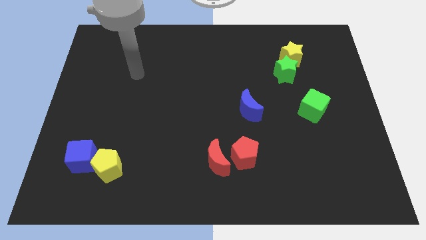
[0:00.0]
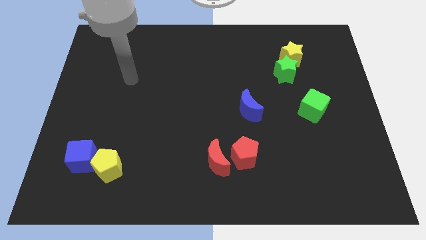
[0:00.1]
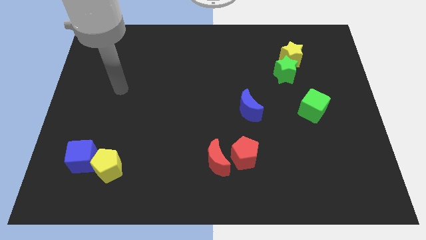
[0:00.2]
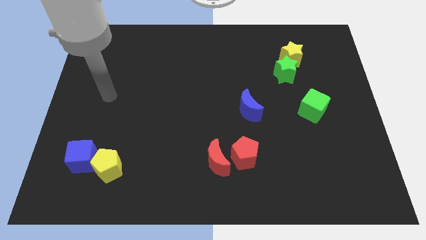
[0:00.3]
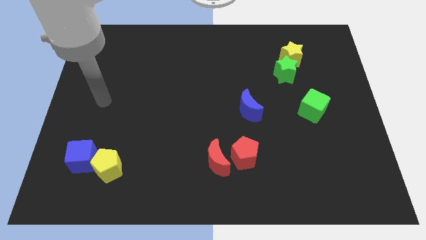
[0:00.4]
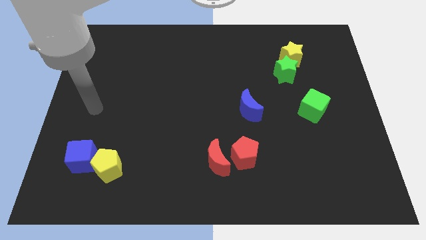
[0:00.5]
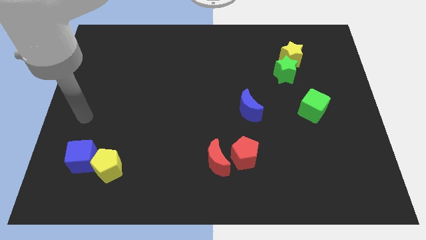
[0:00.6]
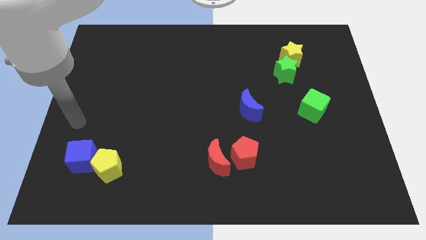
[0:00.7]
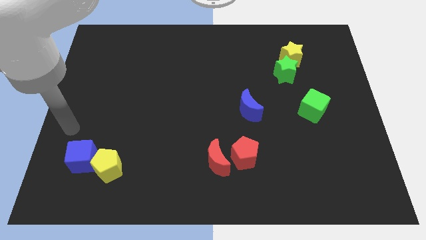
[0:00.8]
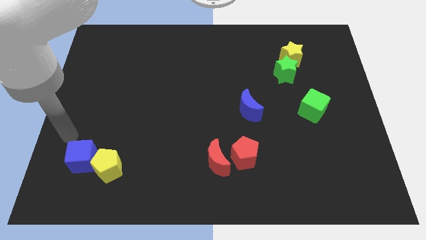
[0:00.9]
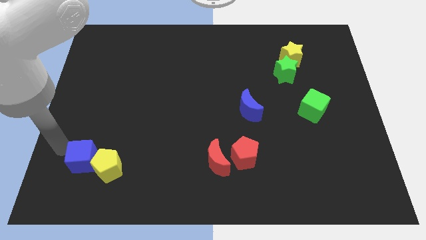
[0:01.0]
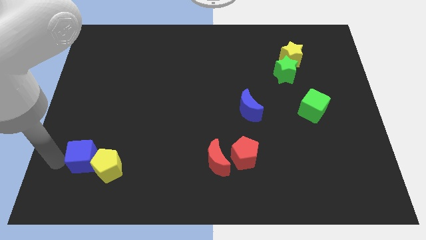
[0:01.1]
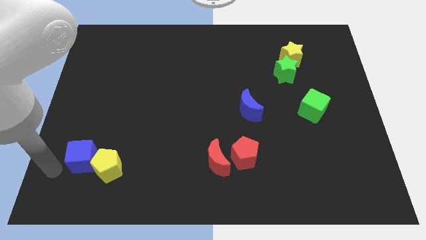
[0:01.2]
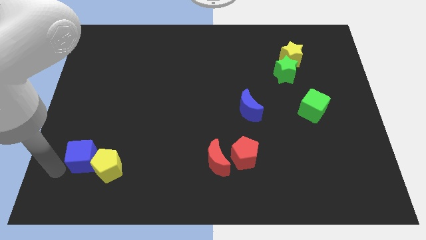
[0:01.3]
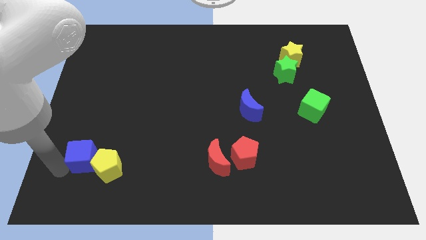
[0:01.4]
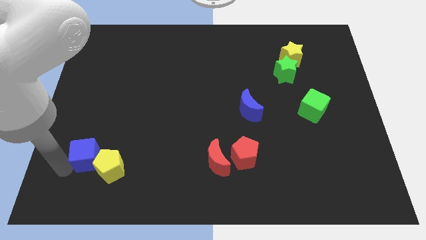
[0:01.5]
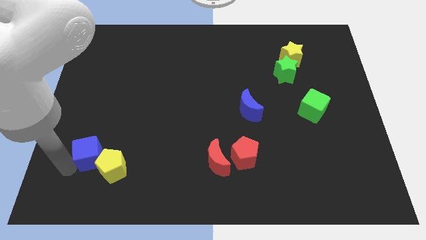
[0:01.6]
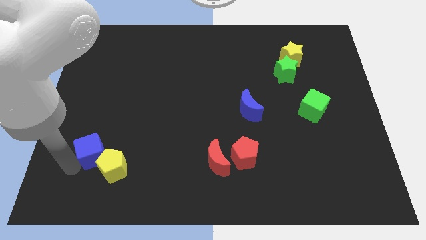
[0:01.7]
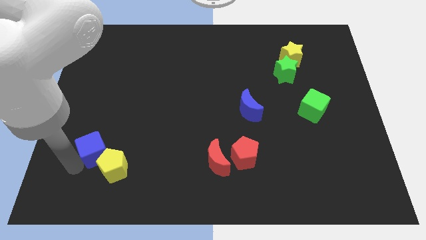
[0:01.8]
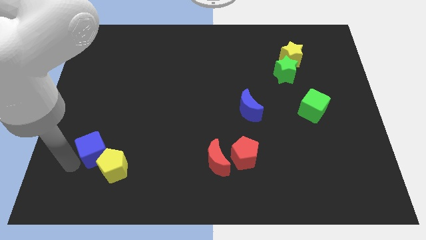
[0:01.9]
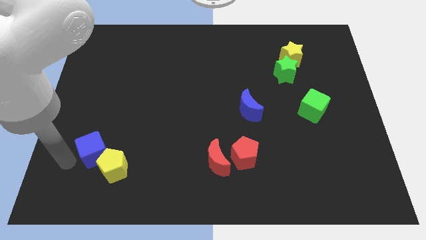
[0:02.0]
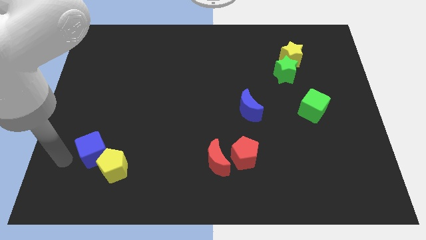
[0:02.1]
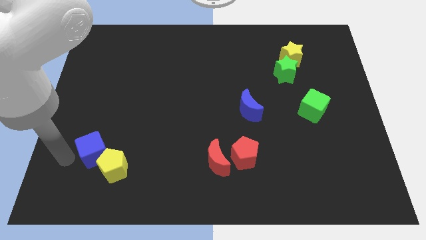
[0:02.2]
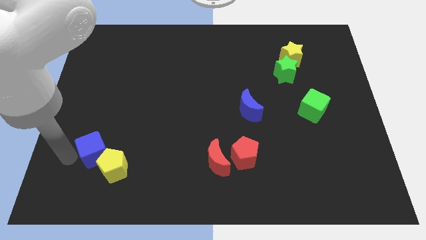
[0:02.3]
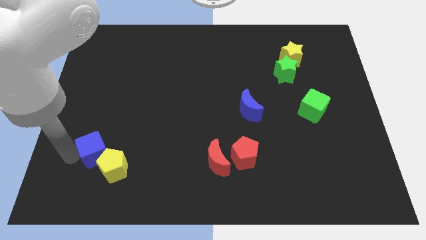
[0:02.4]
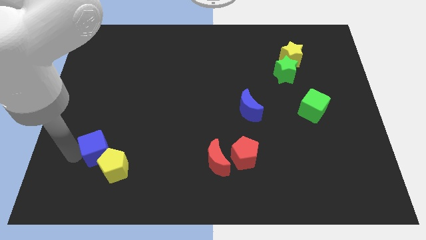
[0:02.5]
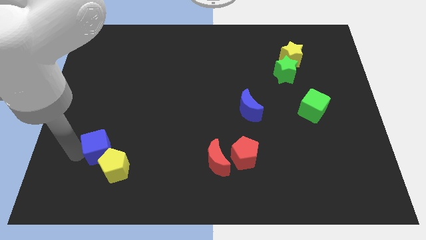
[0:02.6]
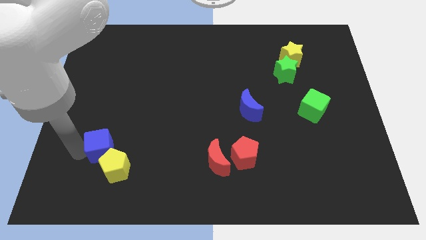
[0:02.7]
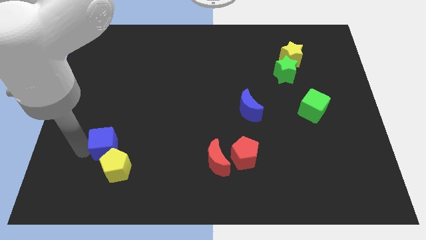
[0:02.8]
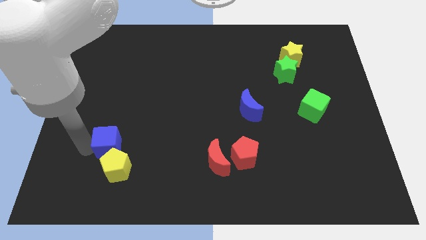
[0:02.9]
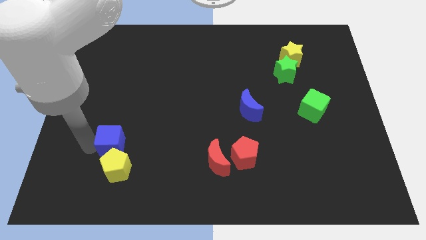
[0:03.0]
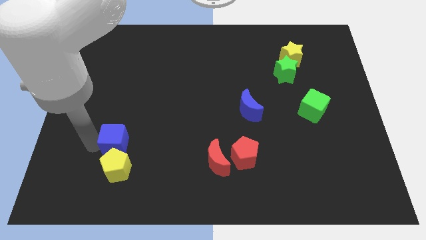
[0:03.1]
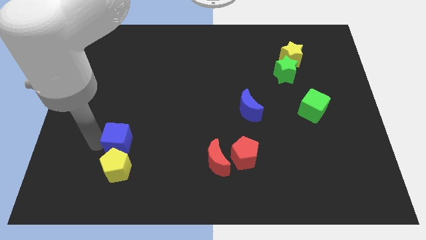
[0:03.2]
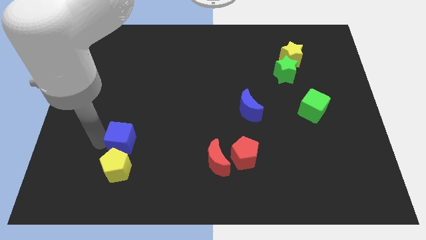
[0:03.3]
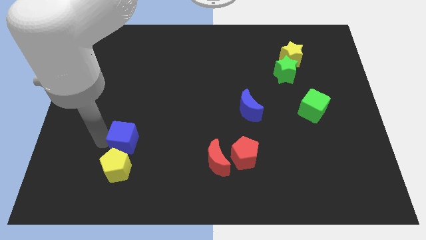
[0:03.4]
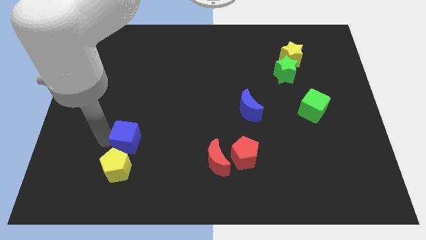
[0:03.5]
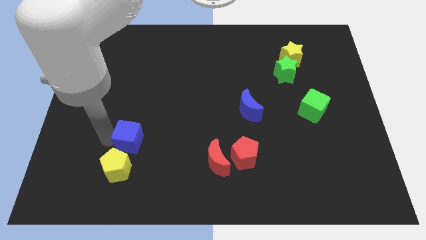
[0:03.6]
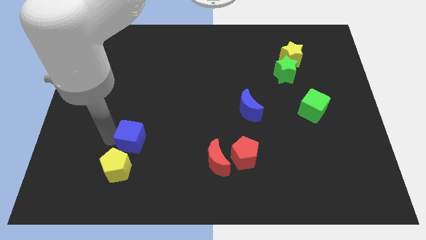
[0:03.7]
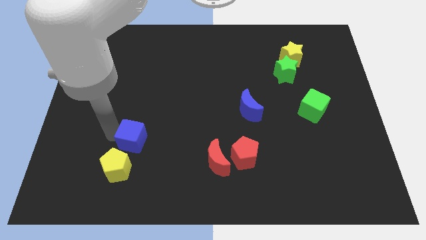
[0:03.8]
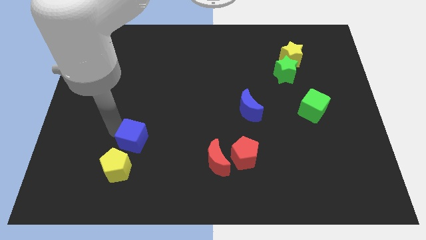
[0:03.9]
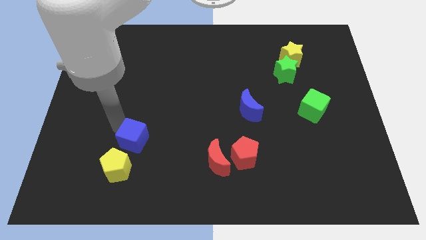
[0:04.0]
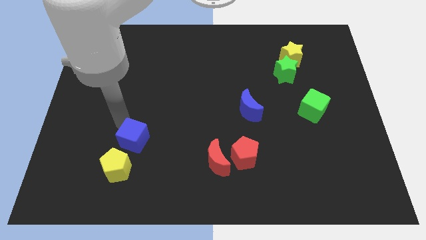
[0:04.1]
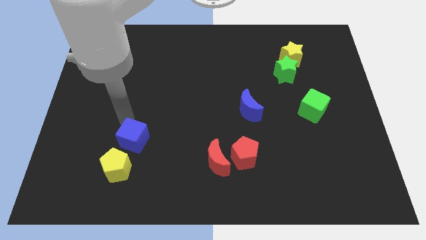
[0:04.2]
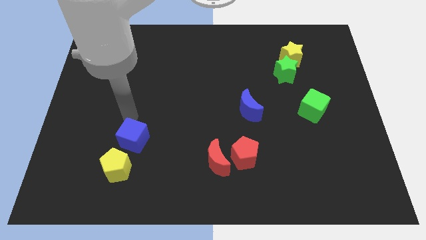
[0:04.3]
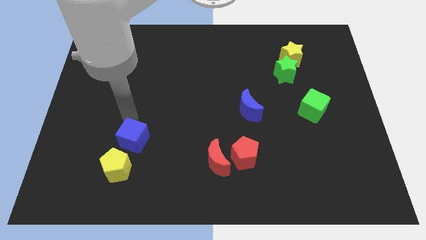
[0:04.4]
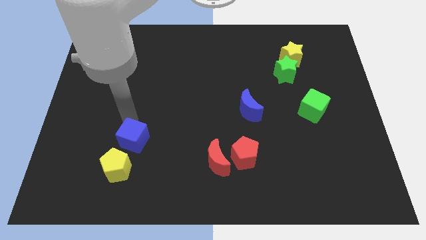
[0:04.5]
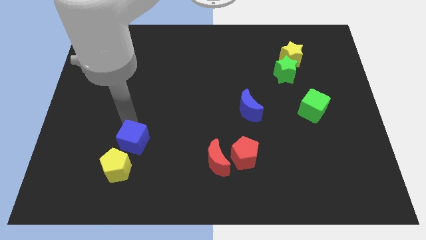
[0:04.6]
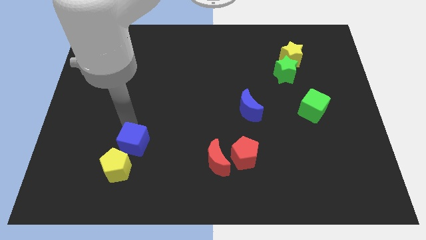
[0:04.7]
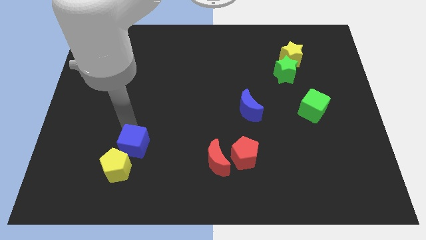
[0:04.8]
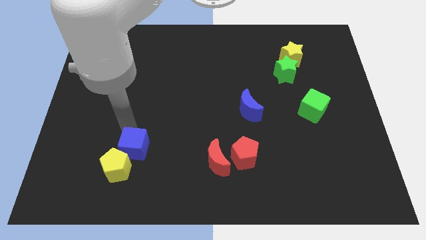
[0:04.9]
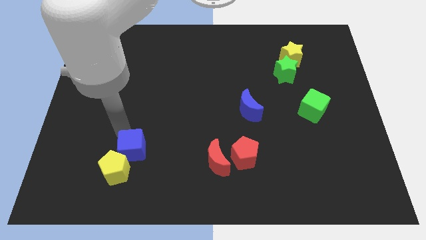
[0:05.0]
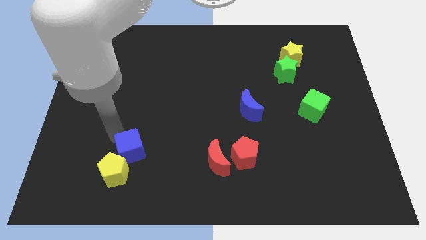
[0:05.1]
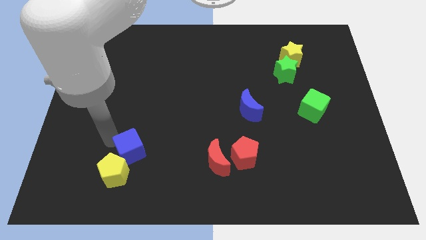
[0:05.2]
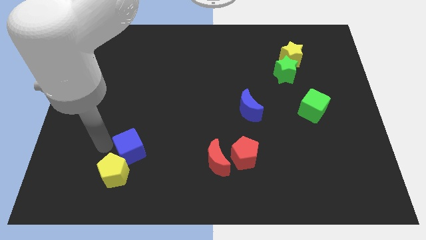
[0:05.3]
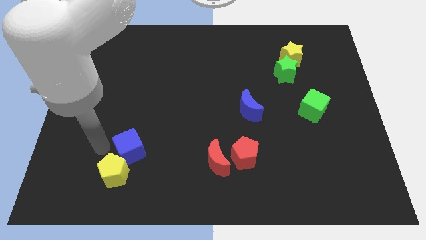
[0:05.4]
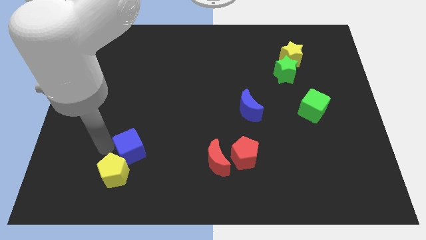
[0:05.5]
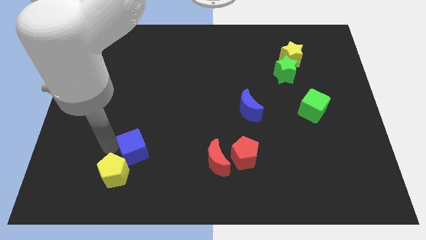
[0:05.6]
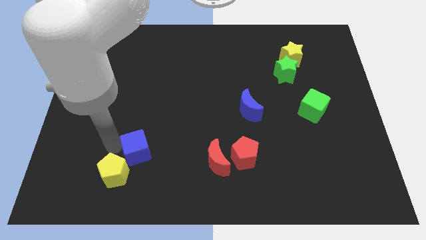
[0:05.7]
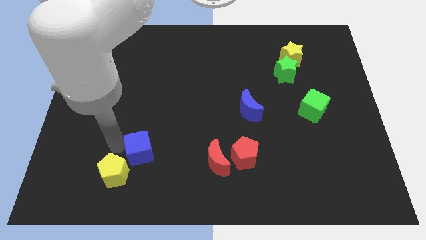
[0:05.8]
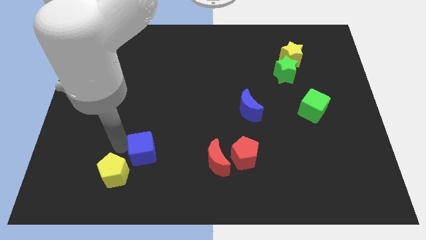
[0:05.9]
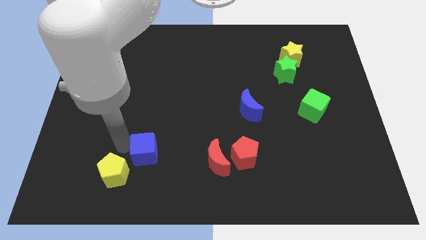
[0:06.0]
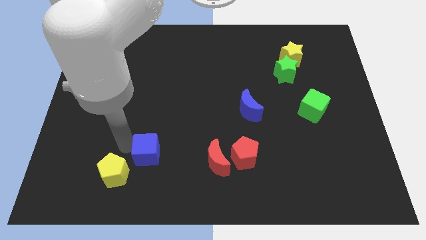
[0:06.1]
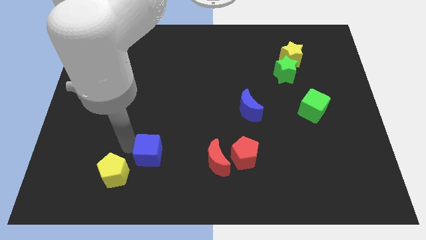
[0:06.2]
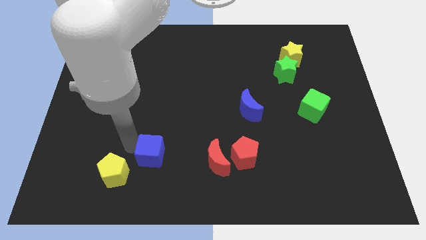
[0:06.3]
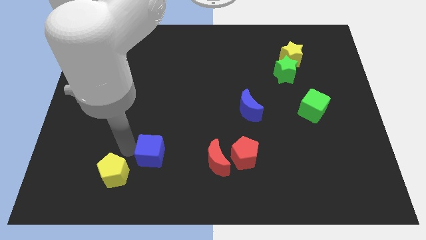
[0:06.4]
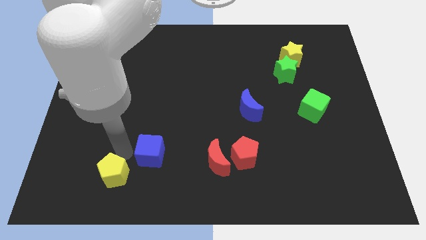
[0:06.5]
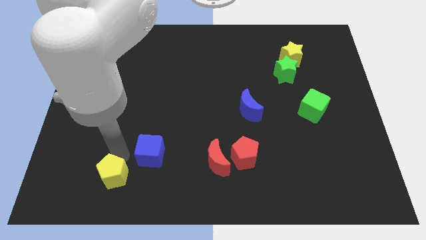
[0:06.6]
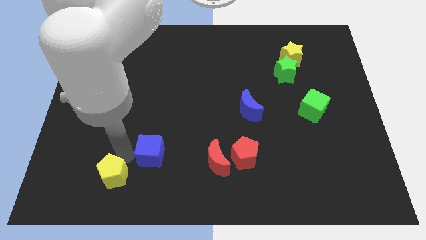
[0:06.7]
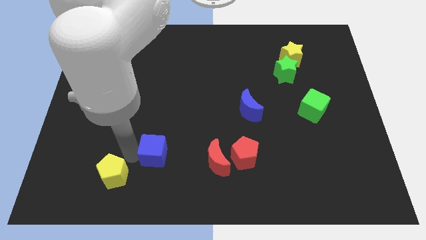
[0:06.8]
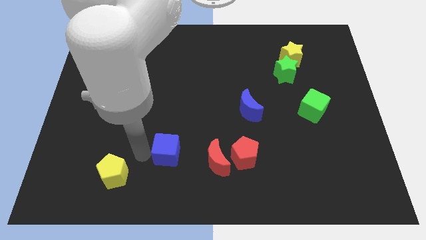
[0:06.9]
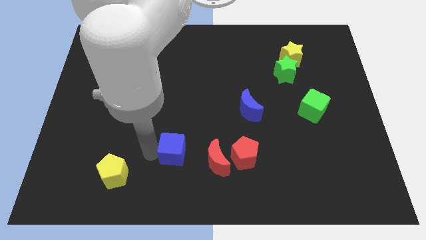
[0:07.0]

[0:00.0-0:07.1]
put the blue cube to the left side of the red pentagon
